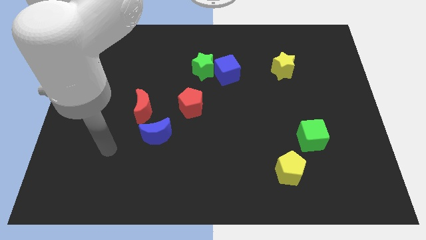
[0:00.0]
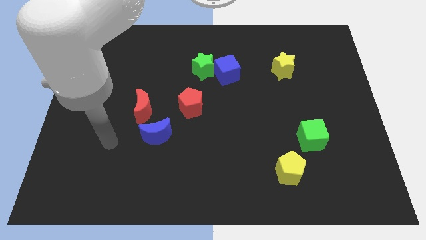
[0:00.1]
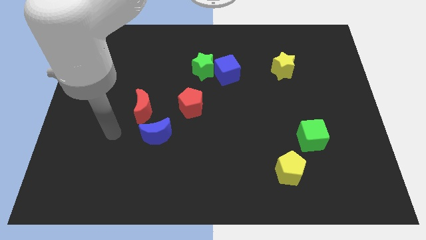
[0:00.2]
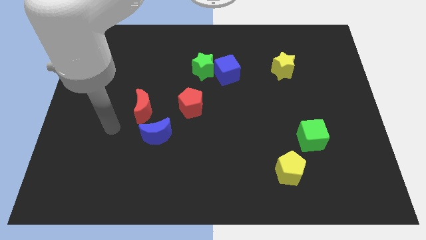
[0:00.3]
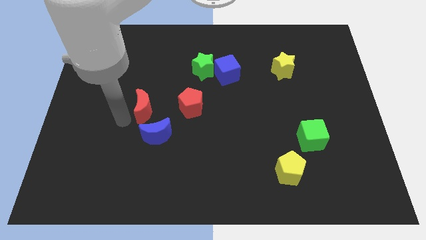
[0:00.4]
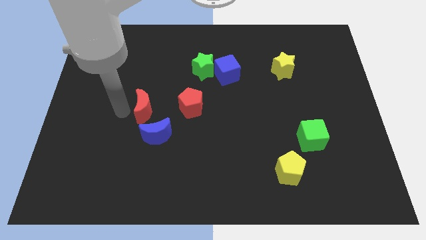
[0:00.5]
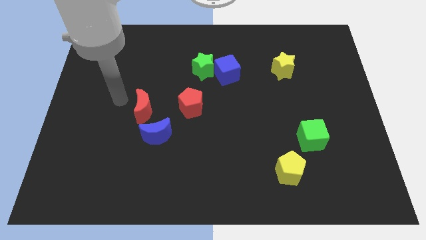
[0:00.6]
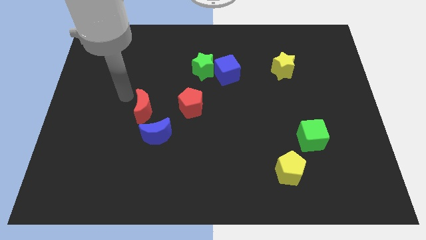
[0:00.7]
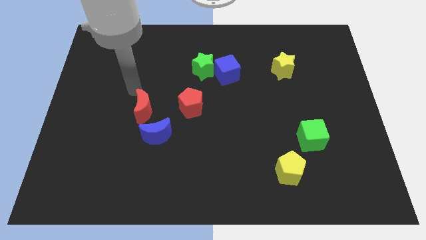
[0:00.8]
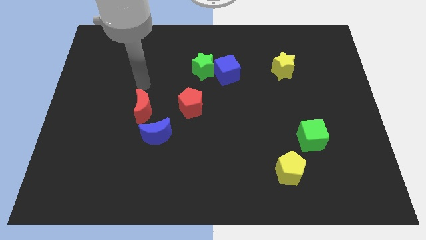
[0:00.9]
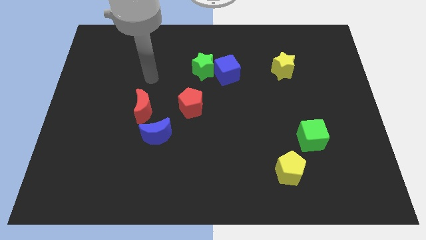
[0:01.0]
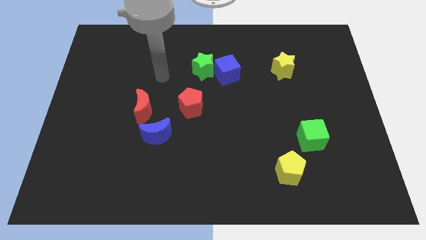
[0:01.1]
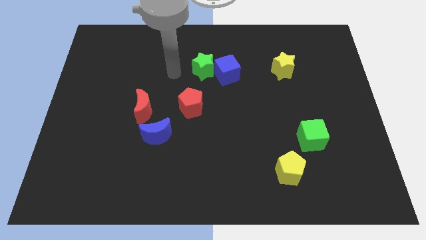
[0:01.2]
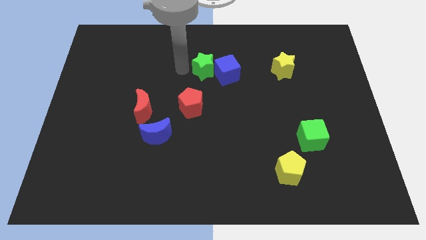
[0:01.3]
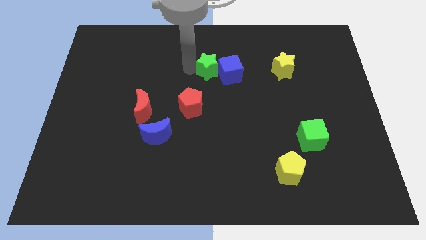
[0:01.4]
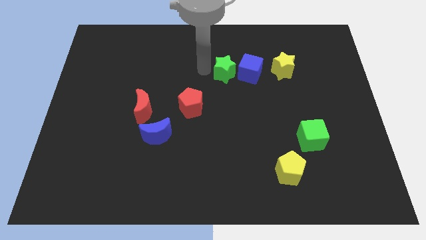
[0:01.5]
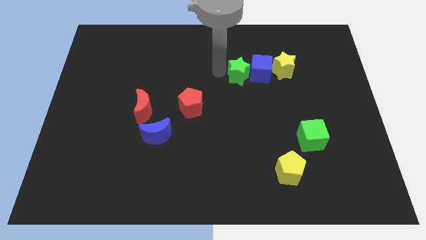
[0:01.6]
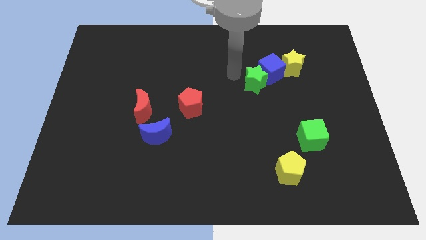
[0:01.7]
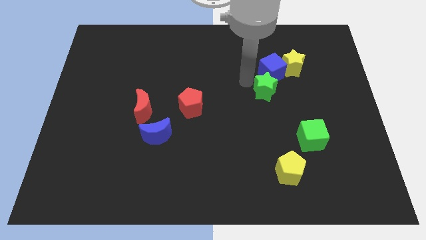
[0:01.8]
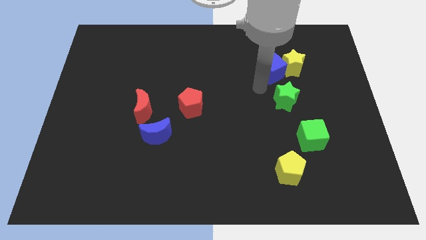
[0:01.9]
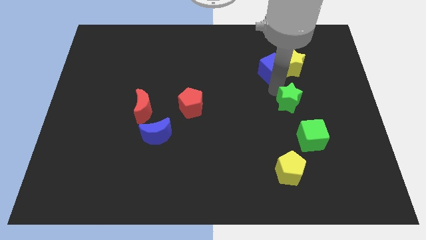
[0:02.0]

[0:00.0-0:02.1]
separate the blue cube from the green star

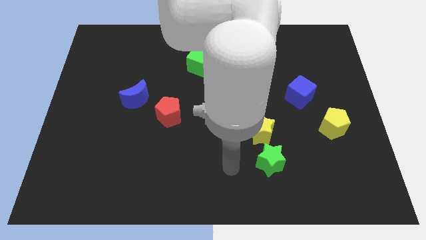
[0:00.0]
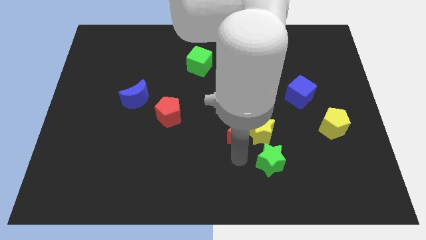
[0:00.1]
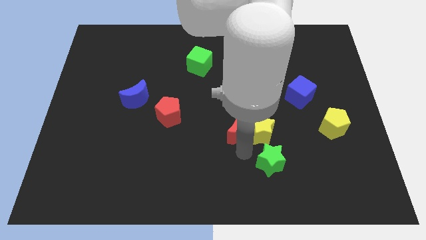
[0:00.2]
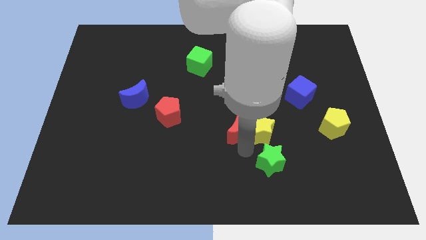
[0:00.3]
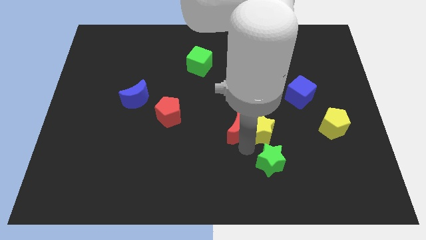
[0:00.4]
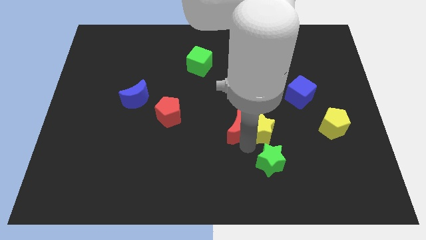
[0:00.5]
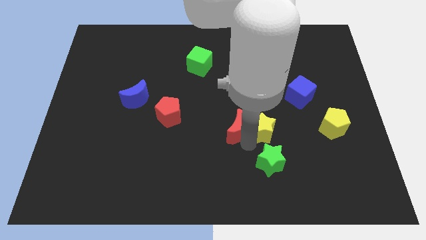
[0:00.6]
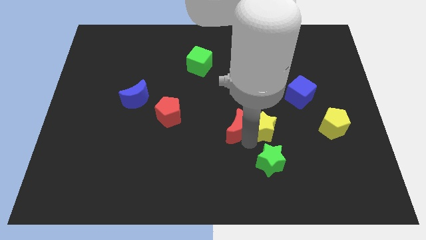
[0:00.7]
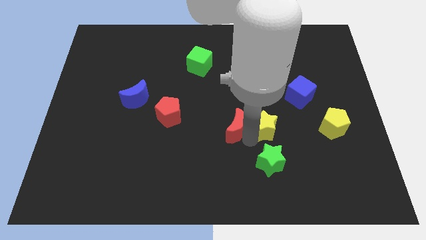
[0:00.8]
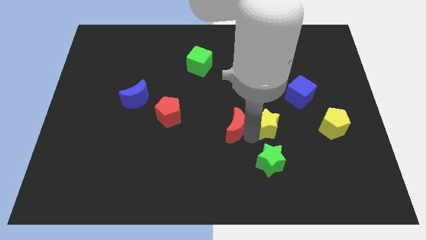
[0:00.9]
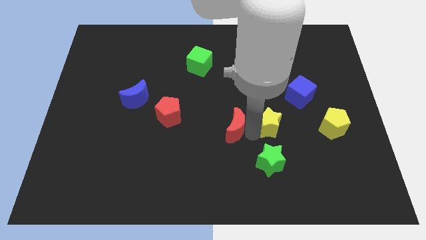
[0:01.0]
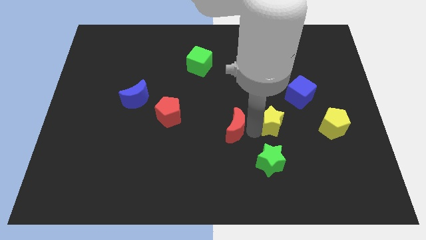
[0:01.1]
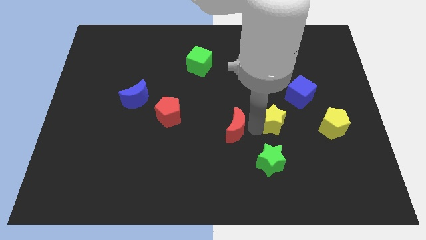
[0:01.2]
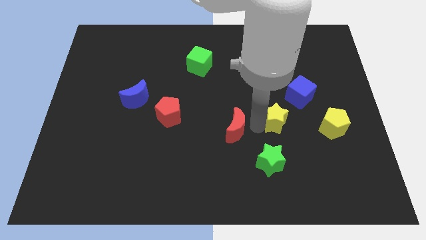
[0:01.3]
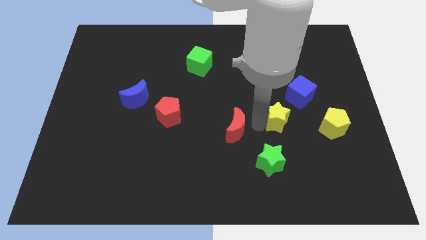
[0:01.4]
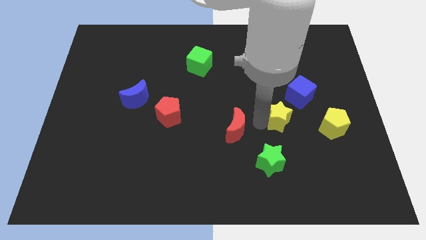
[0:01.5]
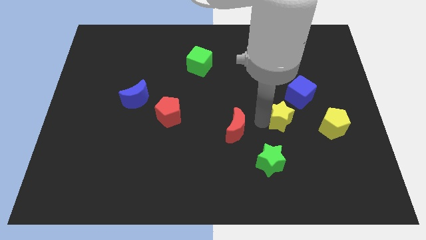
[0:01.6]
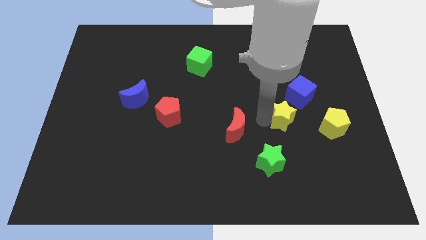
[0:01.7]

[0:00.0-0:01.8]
pull the yellow star apart from the red moon and green star

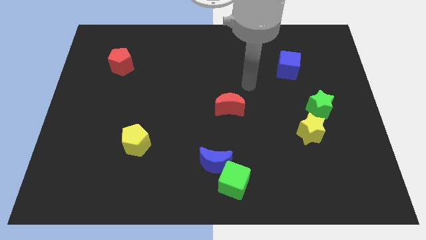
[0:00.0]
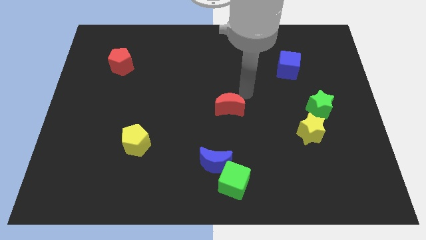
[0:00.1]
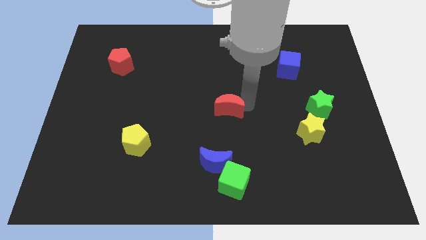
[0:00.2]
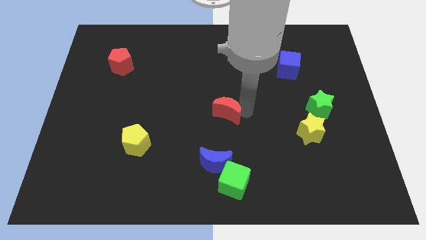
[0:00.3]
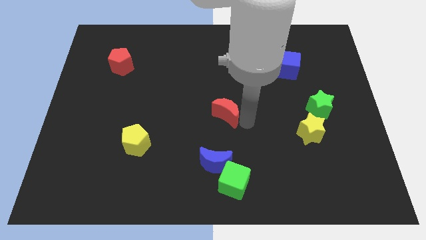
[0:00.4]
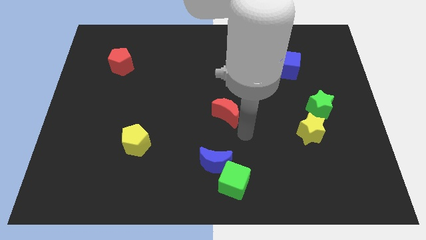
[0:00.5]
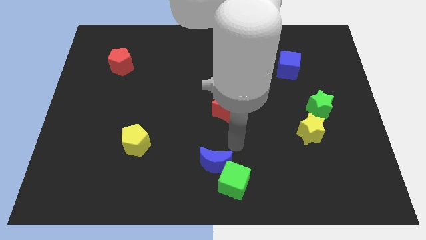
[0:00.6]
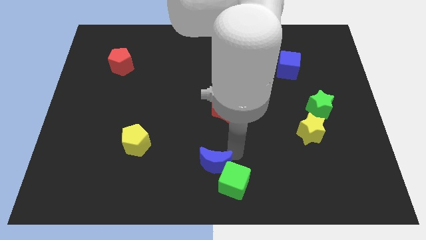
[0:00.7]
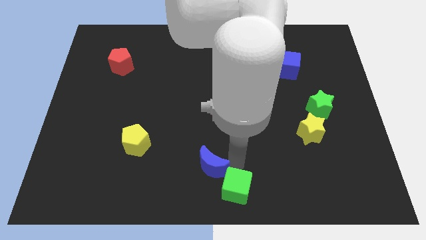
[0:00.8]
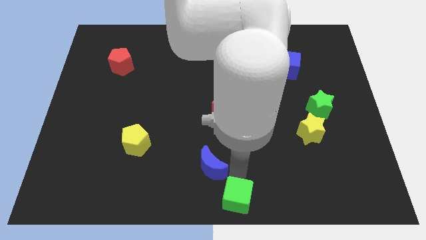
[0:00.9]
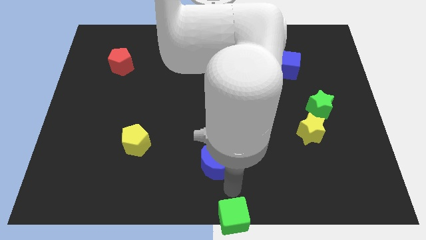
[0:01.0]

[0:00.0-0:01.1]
pull the blue moon apart from the green cube

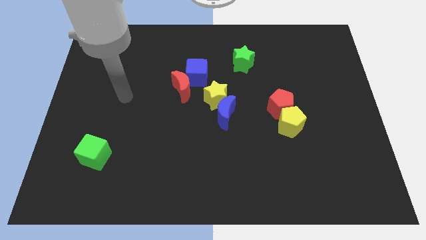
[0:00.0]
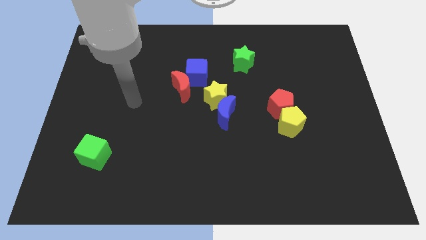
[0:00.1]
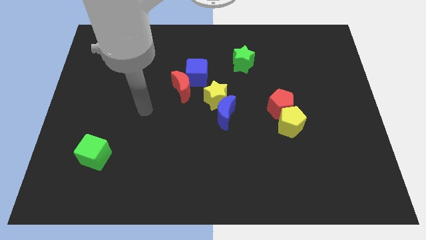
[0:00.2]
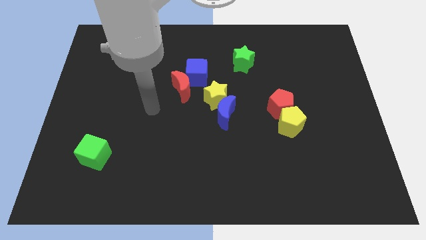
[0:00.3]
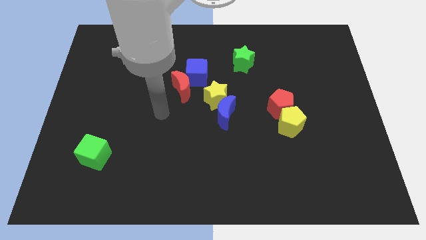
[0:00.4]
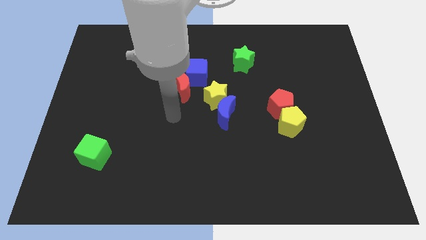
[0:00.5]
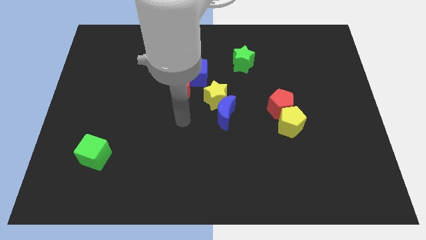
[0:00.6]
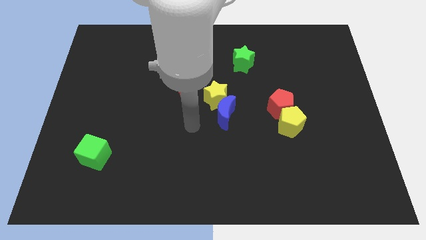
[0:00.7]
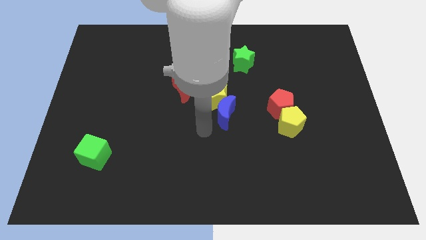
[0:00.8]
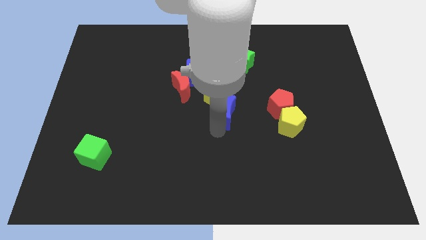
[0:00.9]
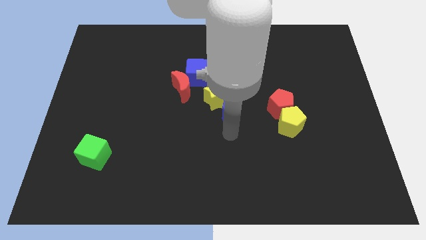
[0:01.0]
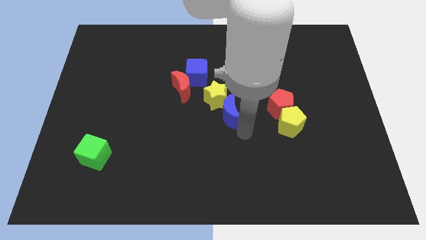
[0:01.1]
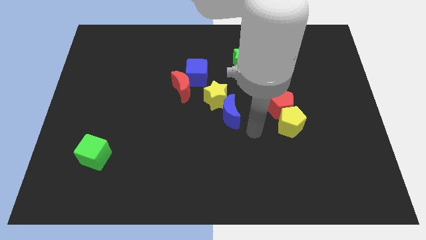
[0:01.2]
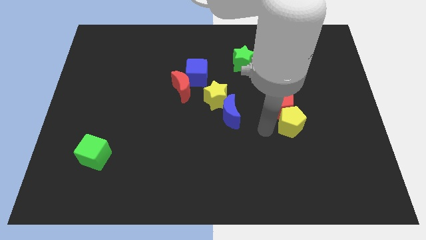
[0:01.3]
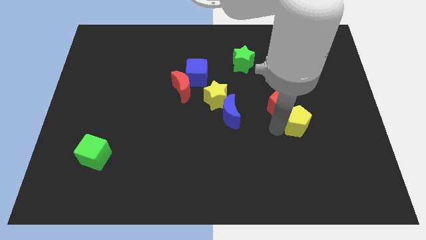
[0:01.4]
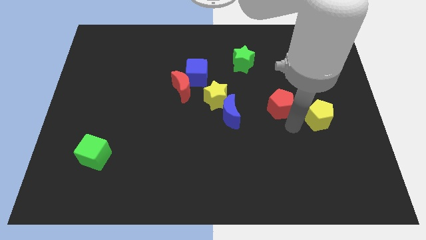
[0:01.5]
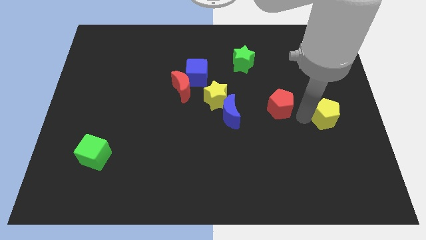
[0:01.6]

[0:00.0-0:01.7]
pull the red pentagon apart from the yellow pentagon

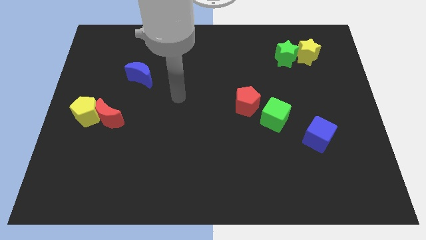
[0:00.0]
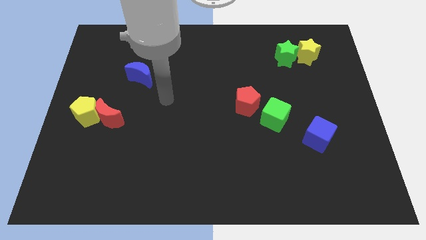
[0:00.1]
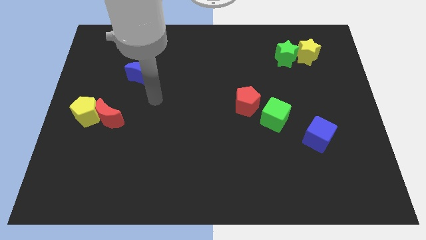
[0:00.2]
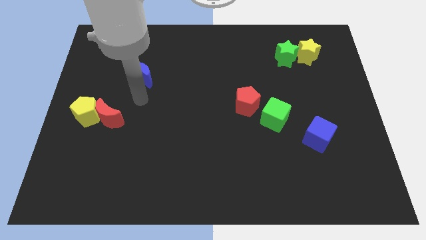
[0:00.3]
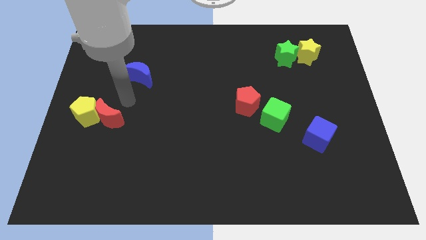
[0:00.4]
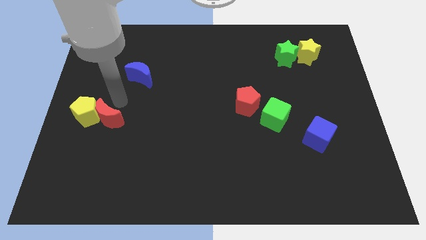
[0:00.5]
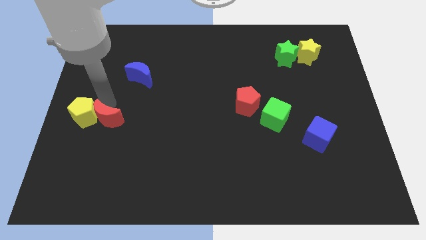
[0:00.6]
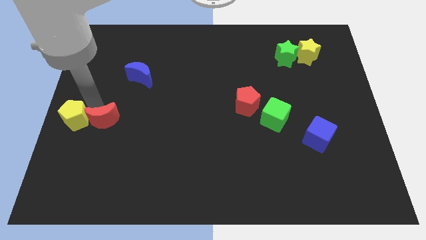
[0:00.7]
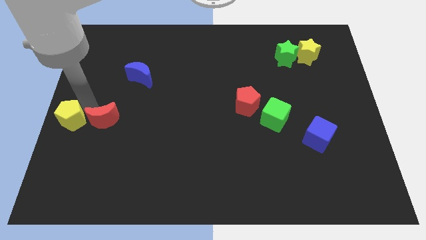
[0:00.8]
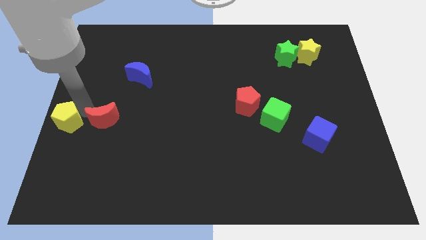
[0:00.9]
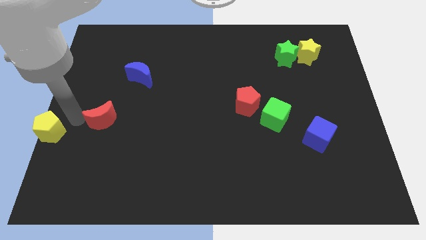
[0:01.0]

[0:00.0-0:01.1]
pull the red moon apart from the yellow pentagon

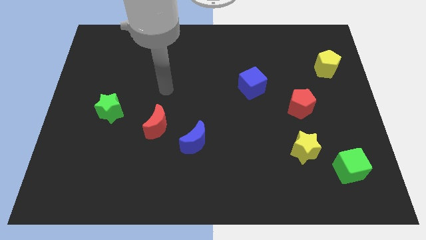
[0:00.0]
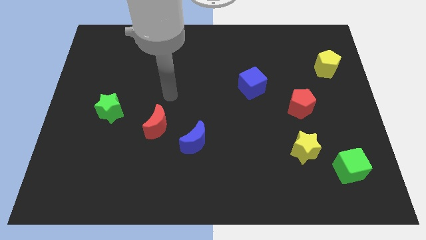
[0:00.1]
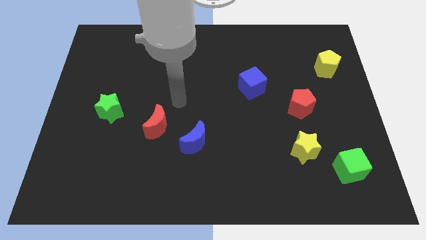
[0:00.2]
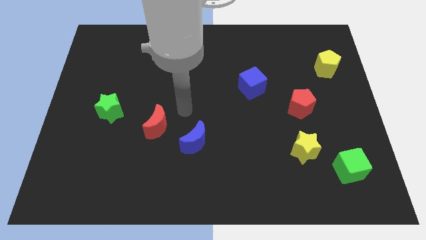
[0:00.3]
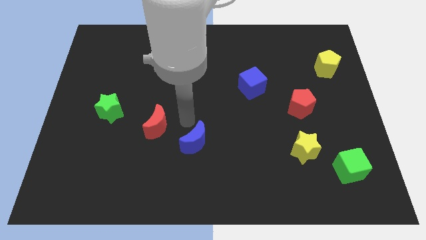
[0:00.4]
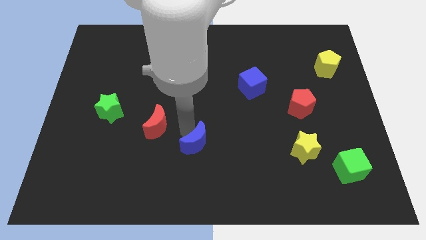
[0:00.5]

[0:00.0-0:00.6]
move the red moon away from the blue moon

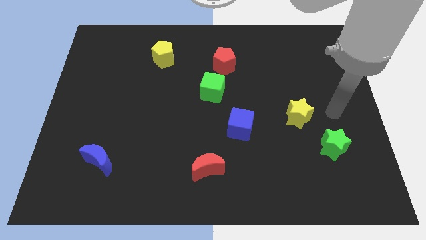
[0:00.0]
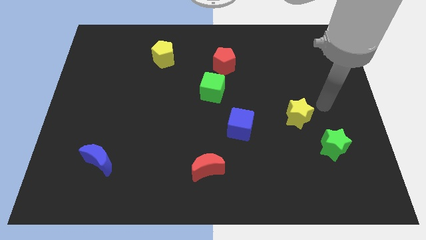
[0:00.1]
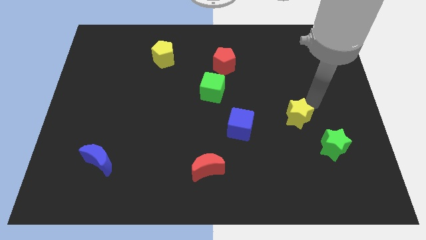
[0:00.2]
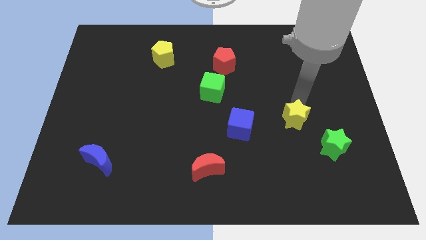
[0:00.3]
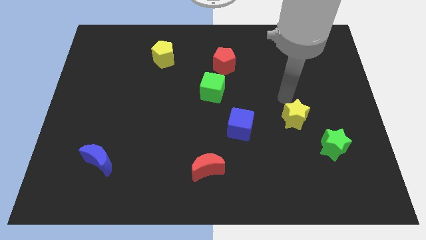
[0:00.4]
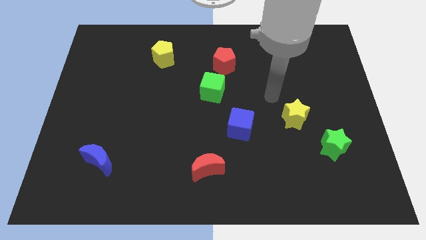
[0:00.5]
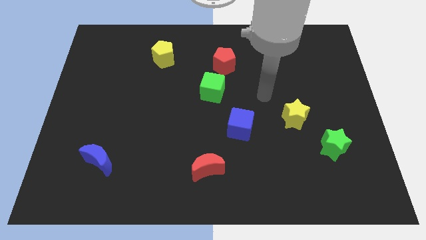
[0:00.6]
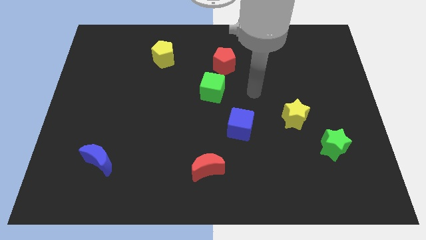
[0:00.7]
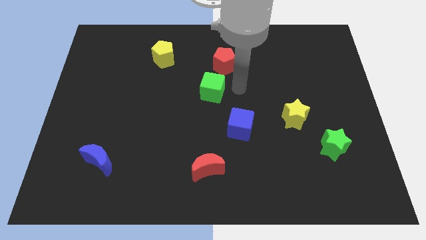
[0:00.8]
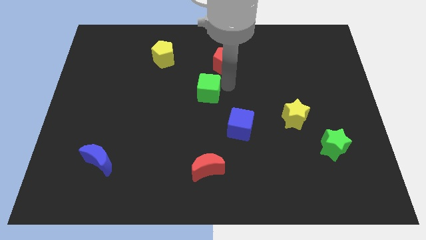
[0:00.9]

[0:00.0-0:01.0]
separate the red pentagon from the green cube
